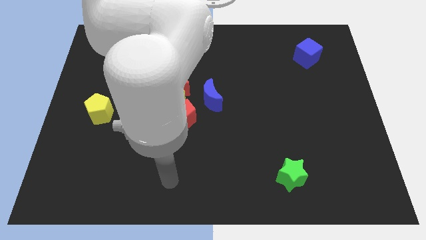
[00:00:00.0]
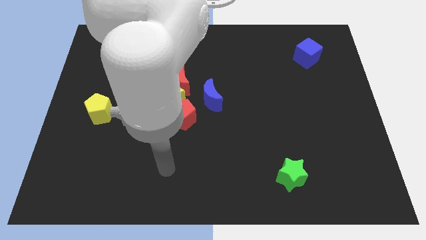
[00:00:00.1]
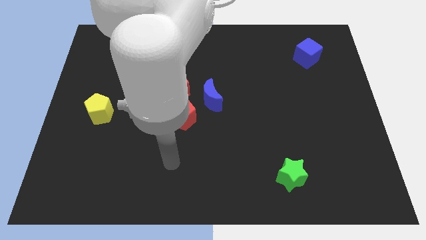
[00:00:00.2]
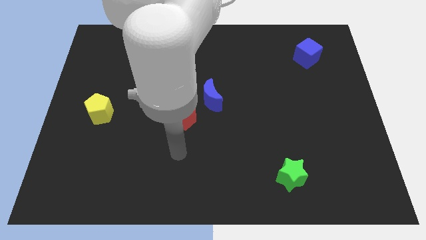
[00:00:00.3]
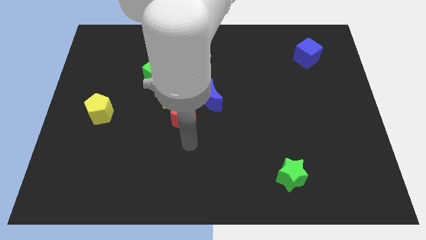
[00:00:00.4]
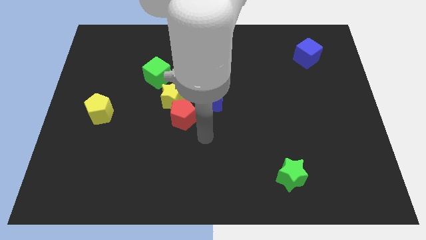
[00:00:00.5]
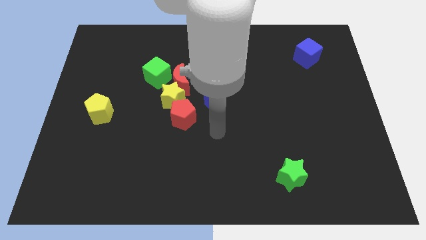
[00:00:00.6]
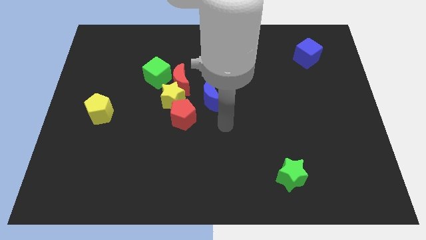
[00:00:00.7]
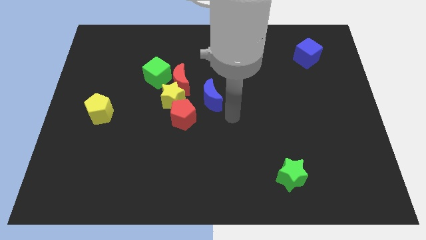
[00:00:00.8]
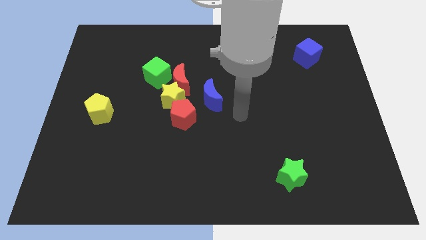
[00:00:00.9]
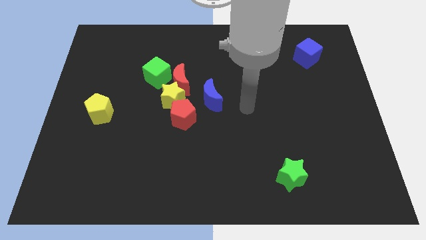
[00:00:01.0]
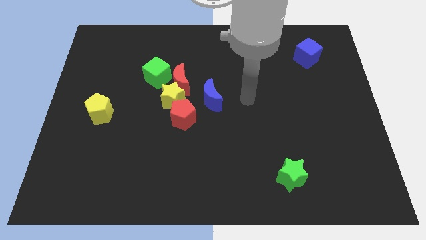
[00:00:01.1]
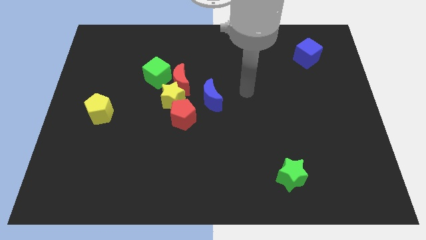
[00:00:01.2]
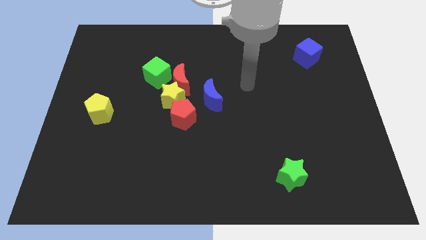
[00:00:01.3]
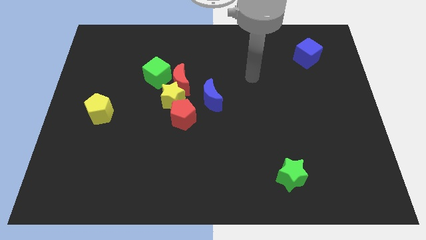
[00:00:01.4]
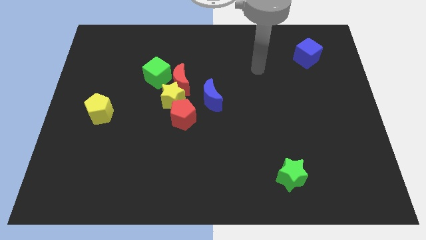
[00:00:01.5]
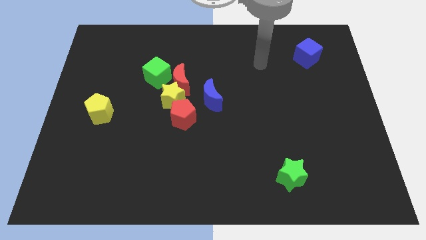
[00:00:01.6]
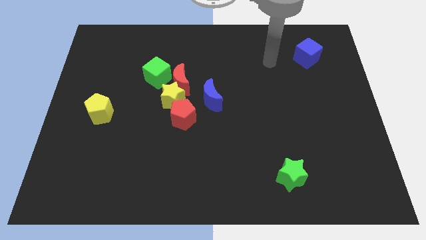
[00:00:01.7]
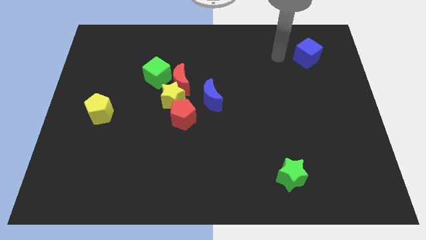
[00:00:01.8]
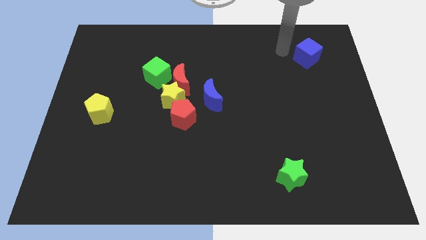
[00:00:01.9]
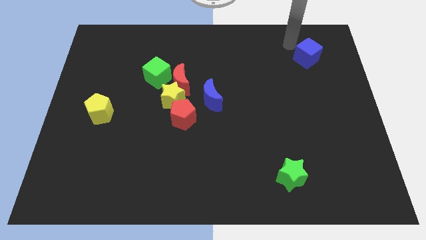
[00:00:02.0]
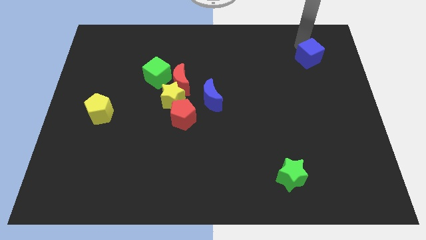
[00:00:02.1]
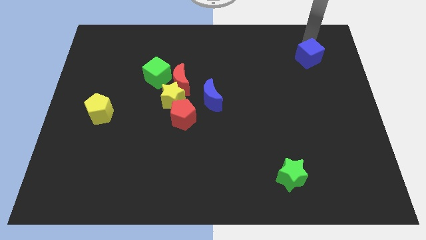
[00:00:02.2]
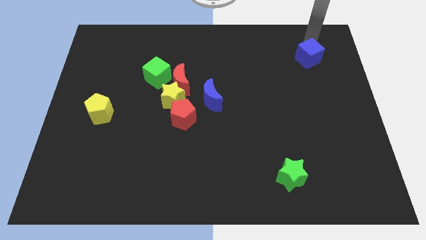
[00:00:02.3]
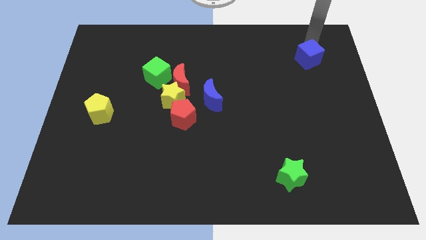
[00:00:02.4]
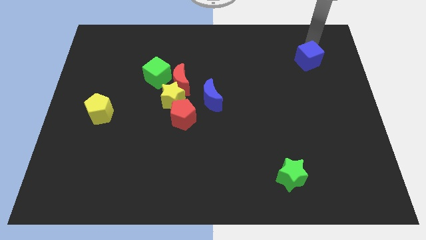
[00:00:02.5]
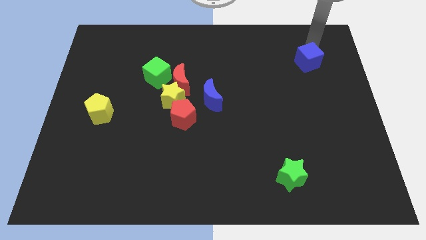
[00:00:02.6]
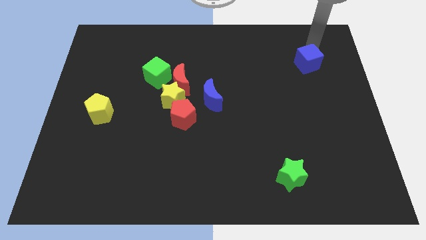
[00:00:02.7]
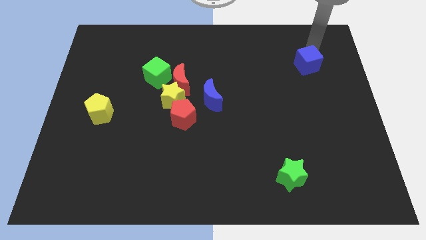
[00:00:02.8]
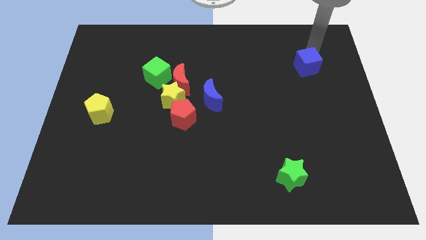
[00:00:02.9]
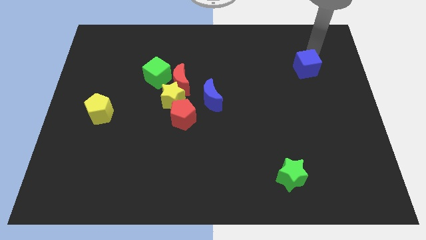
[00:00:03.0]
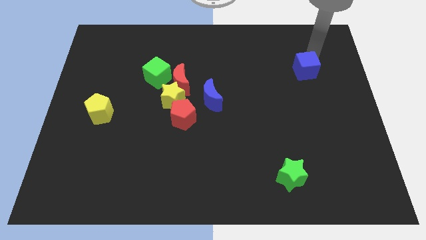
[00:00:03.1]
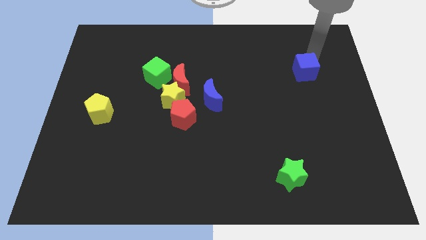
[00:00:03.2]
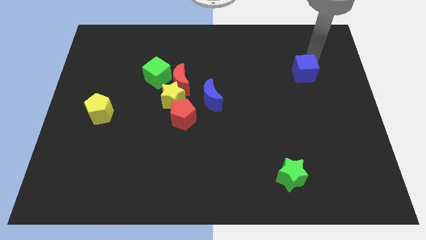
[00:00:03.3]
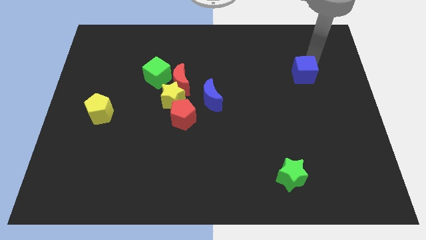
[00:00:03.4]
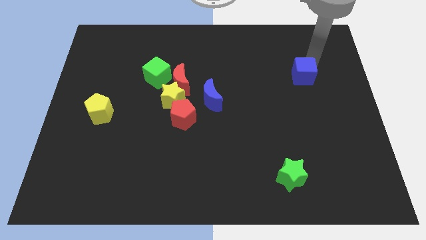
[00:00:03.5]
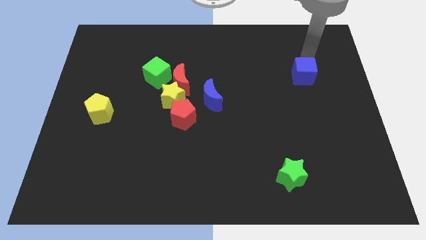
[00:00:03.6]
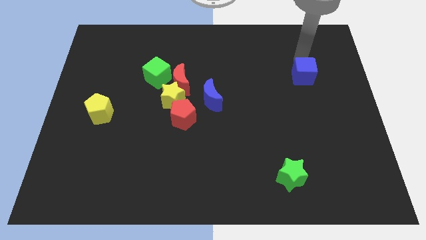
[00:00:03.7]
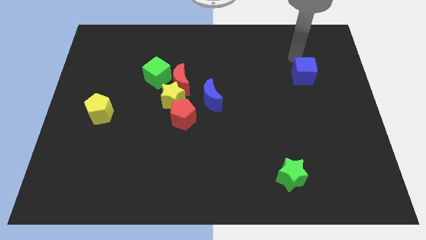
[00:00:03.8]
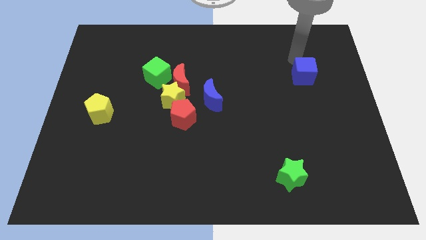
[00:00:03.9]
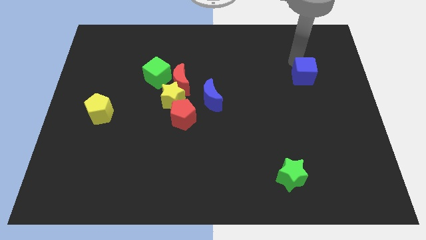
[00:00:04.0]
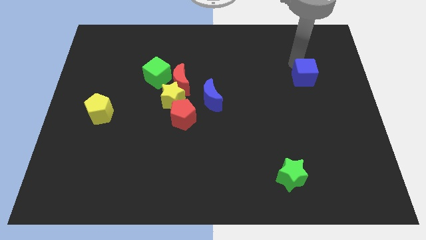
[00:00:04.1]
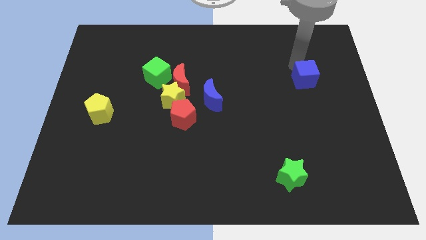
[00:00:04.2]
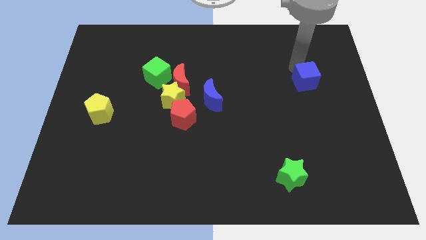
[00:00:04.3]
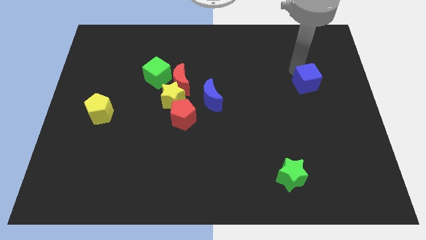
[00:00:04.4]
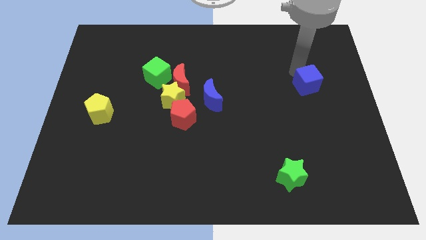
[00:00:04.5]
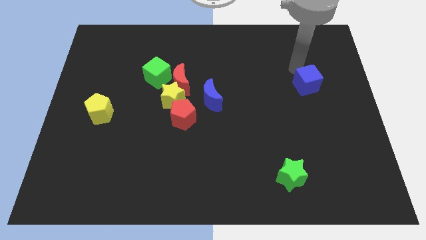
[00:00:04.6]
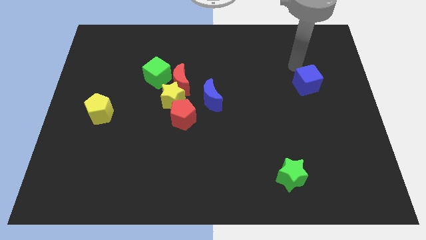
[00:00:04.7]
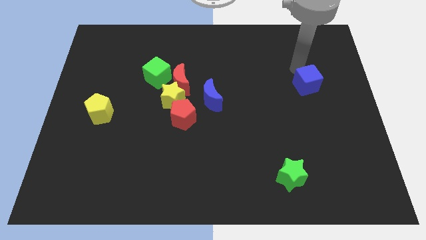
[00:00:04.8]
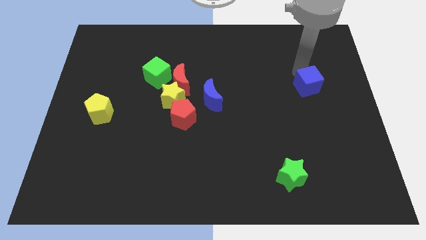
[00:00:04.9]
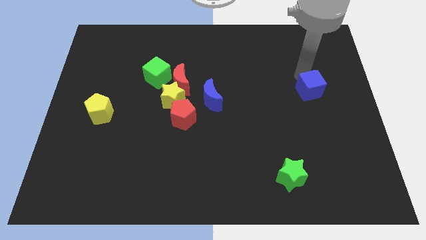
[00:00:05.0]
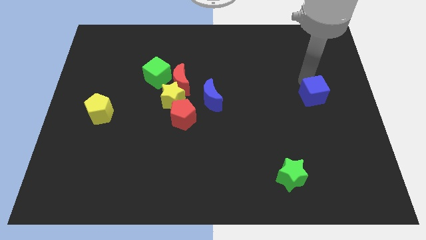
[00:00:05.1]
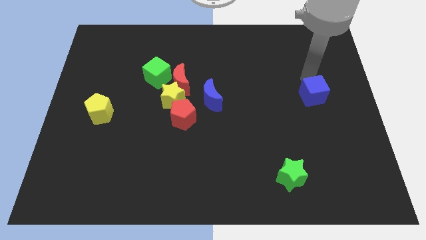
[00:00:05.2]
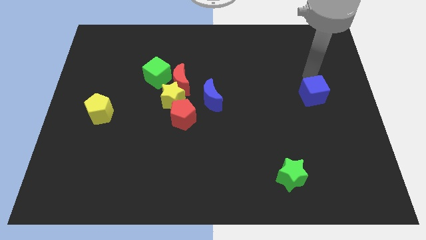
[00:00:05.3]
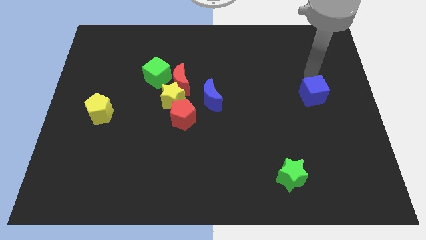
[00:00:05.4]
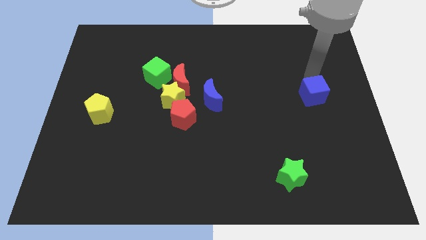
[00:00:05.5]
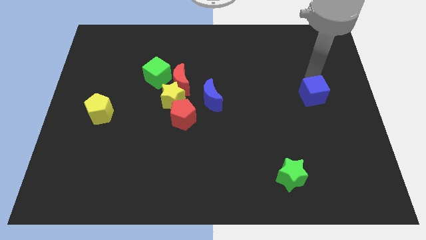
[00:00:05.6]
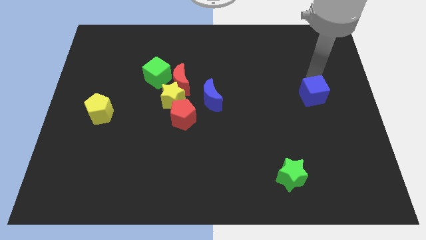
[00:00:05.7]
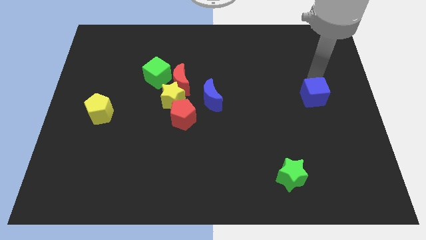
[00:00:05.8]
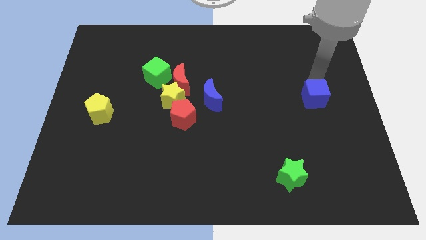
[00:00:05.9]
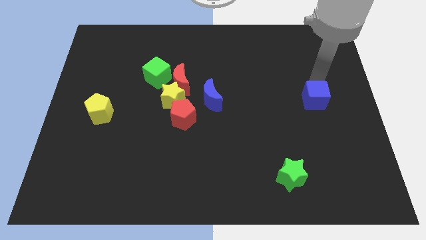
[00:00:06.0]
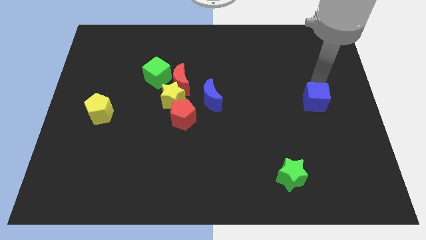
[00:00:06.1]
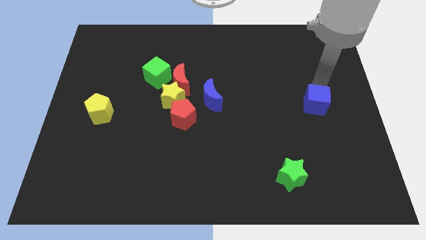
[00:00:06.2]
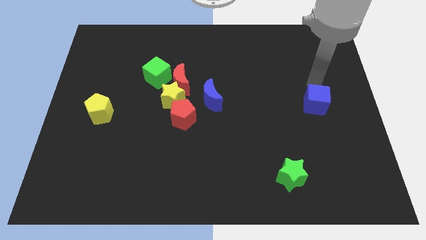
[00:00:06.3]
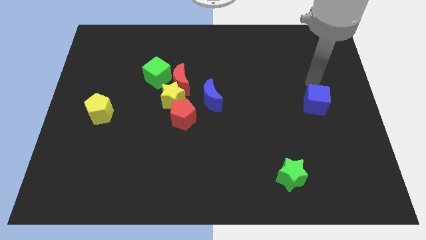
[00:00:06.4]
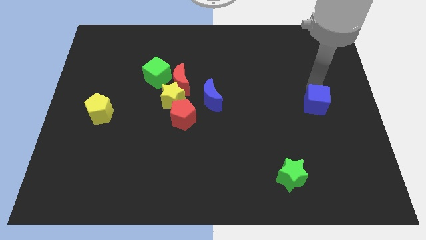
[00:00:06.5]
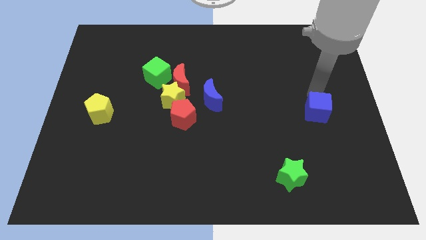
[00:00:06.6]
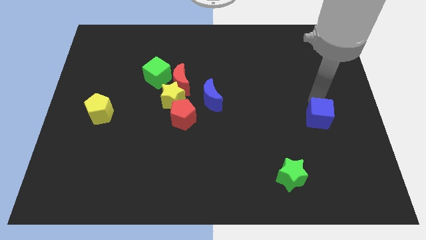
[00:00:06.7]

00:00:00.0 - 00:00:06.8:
move the blue cube down

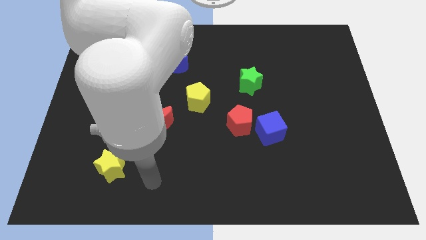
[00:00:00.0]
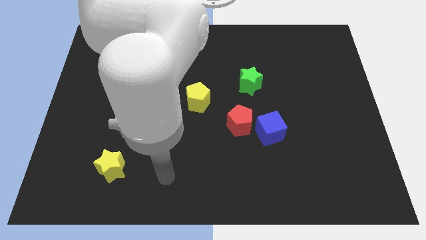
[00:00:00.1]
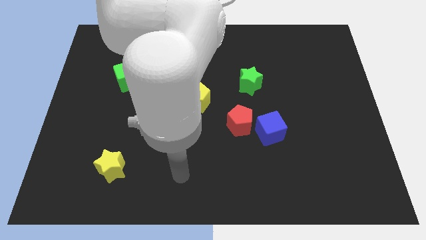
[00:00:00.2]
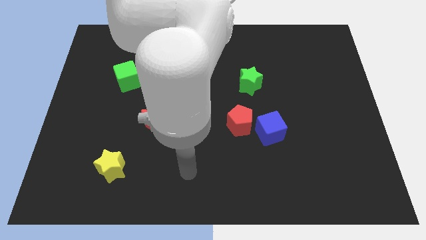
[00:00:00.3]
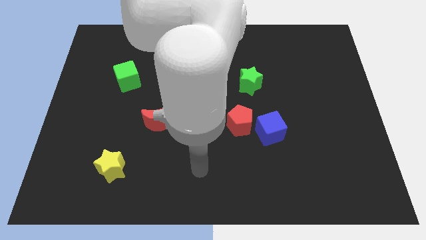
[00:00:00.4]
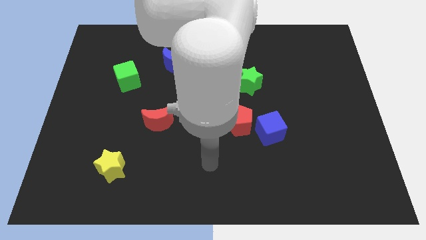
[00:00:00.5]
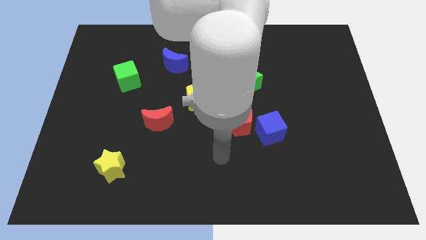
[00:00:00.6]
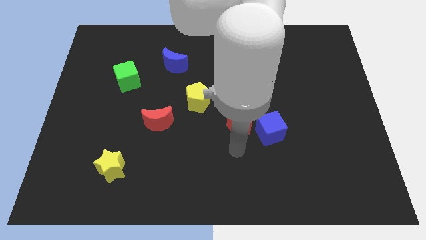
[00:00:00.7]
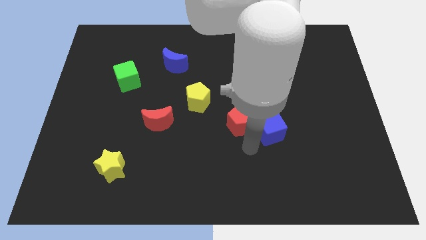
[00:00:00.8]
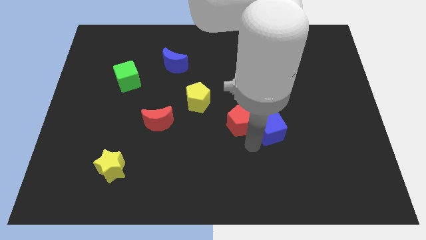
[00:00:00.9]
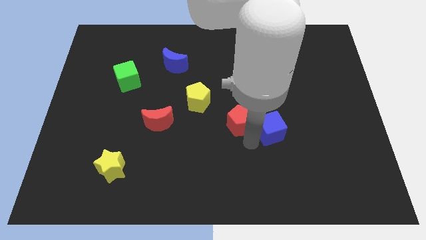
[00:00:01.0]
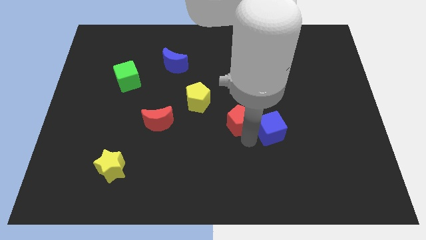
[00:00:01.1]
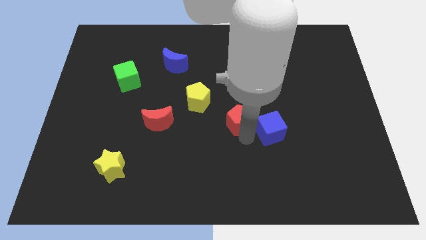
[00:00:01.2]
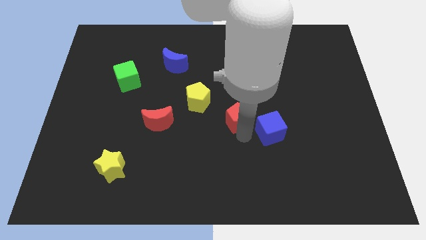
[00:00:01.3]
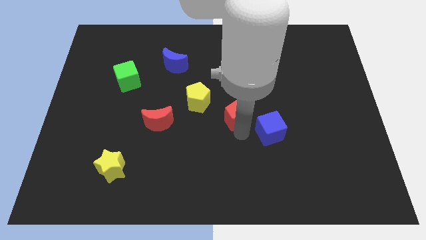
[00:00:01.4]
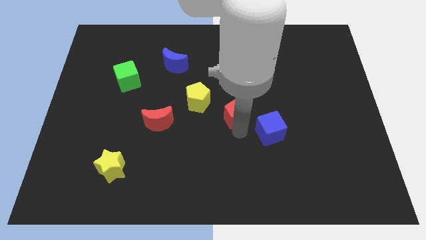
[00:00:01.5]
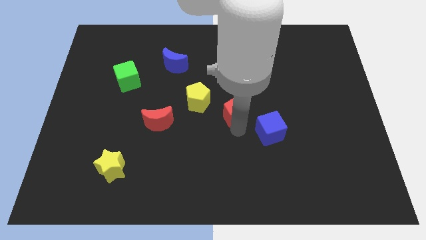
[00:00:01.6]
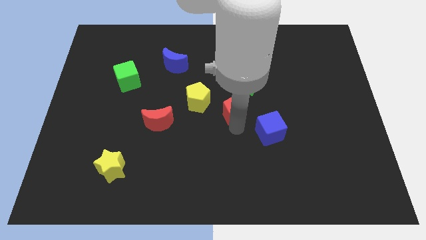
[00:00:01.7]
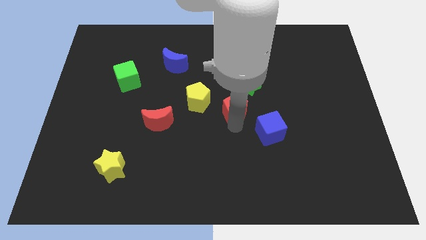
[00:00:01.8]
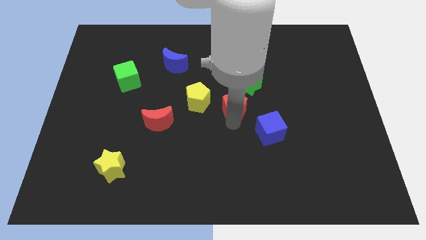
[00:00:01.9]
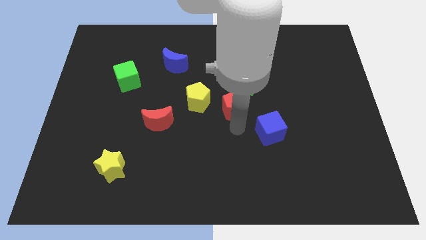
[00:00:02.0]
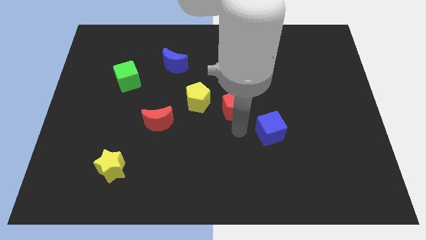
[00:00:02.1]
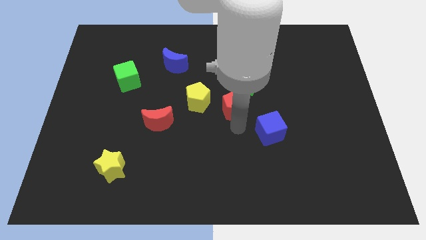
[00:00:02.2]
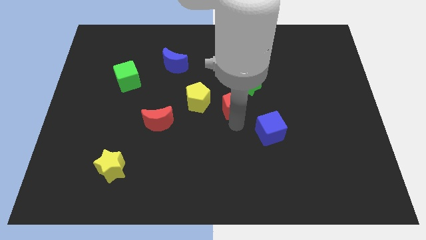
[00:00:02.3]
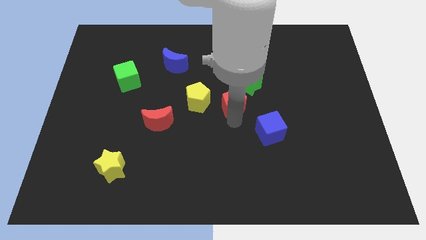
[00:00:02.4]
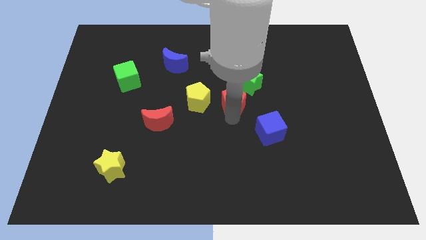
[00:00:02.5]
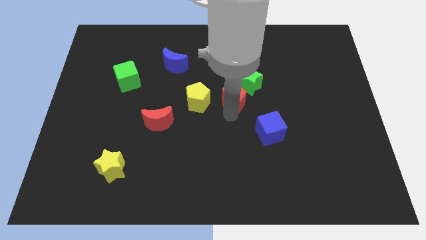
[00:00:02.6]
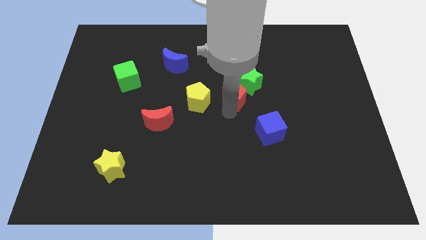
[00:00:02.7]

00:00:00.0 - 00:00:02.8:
move the red pentagon upwards a bit
